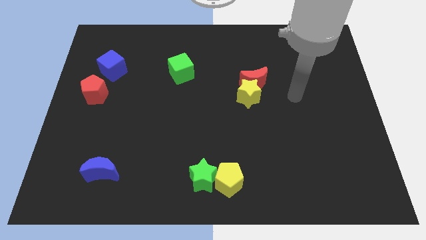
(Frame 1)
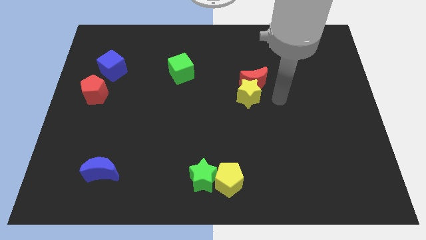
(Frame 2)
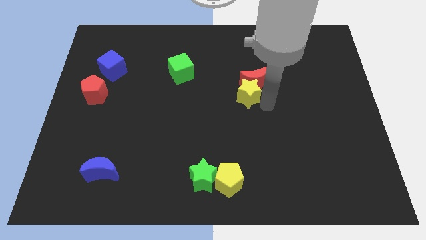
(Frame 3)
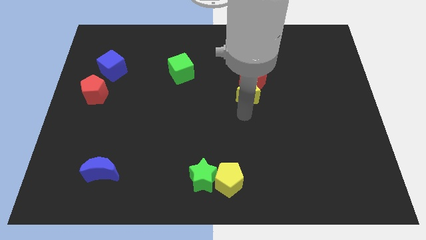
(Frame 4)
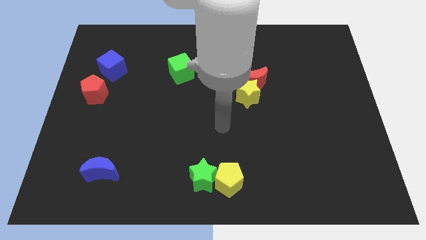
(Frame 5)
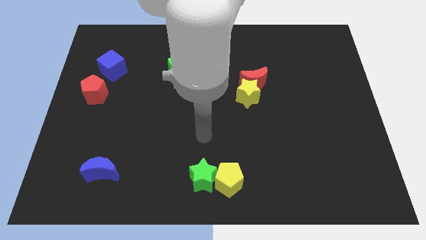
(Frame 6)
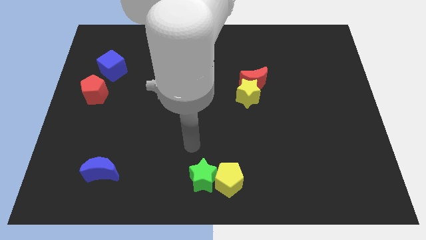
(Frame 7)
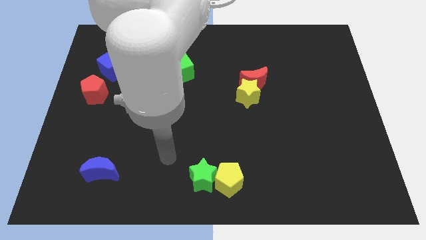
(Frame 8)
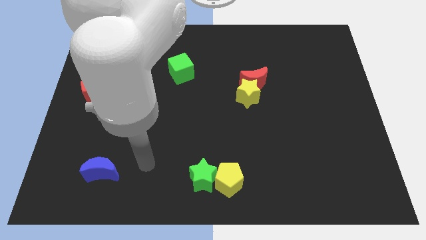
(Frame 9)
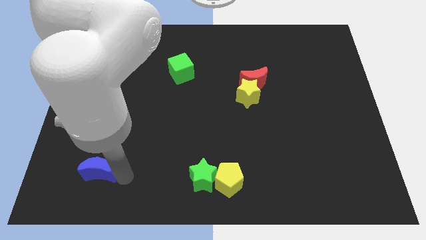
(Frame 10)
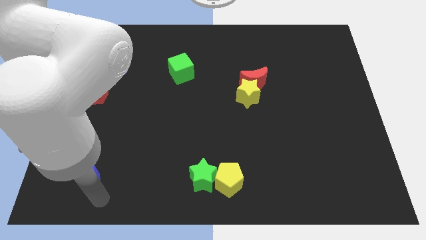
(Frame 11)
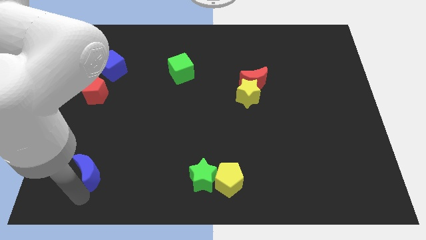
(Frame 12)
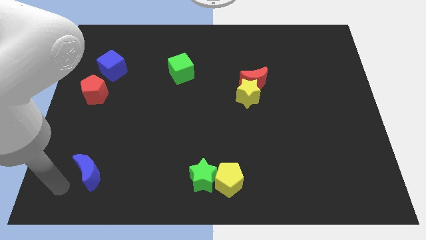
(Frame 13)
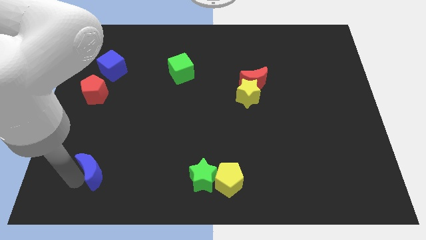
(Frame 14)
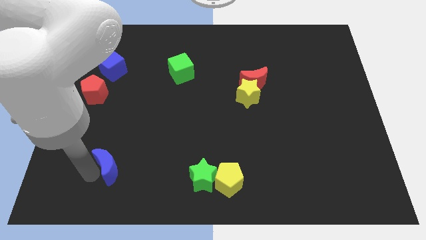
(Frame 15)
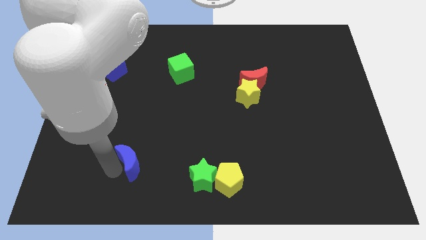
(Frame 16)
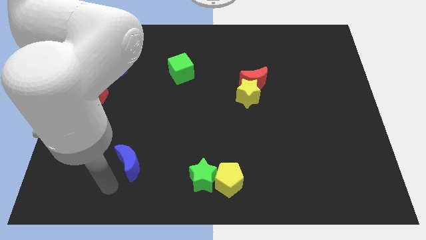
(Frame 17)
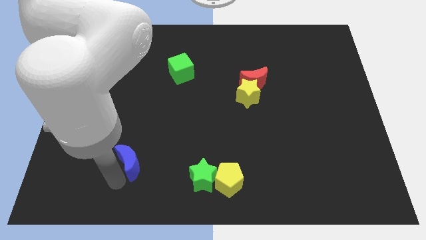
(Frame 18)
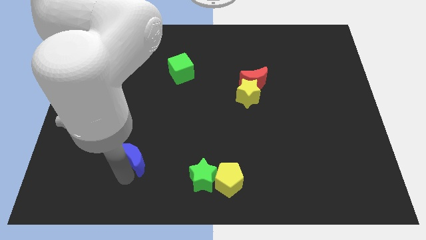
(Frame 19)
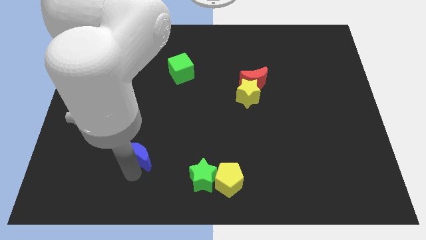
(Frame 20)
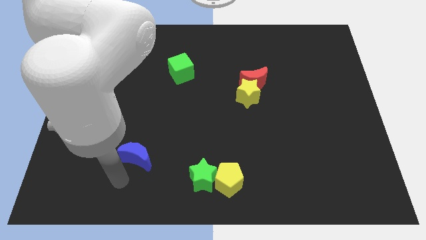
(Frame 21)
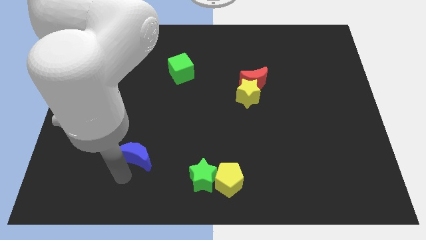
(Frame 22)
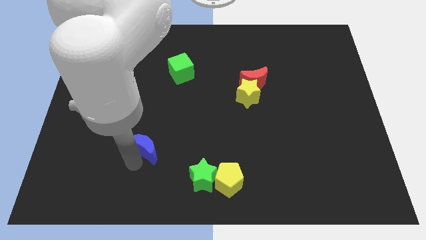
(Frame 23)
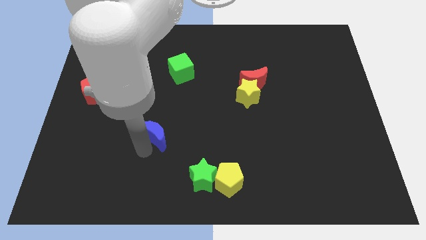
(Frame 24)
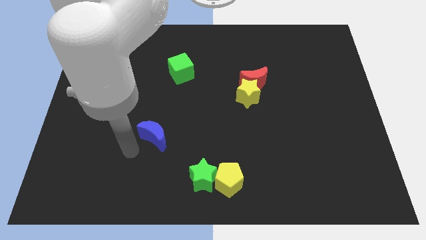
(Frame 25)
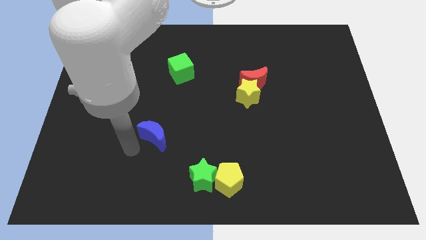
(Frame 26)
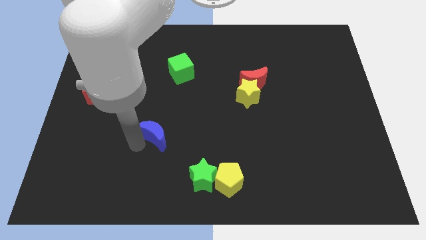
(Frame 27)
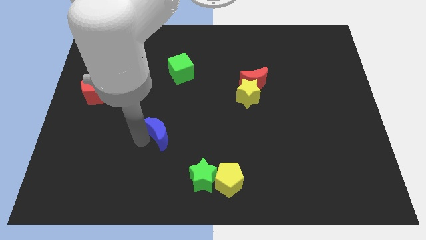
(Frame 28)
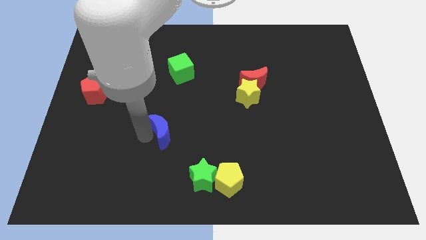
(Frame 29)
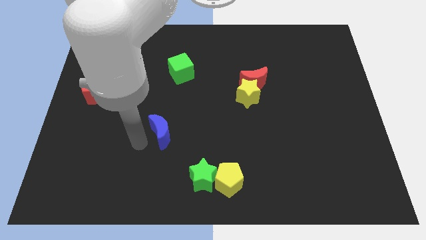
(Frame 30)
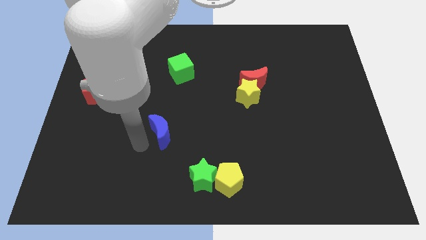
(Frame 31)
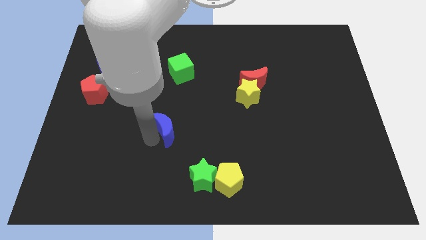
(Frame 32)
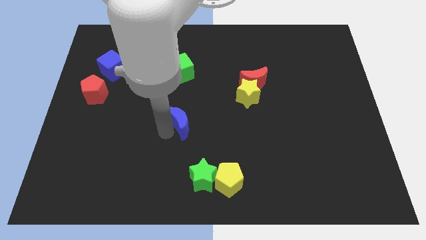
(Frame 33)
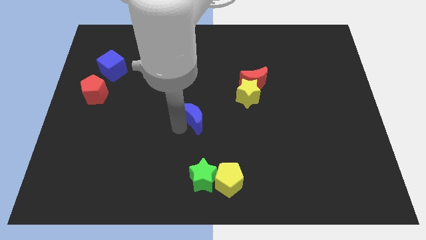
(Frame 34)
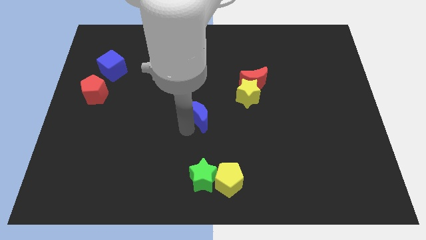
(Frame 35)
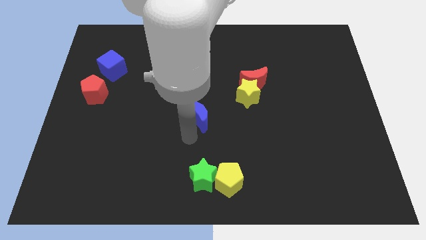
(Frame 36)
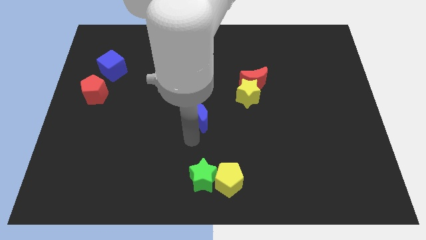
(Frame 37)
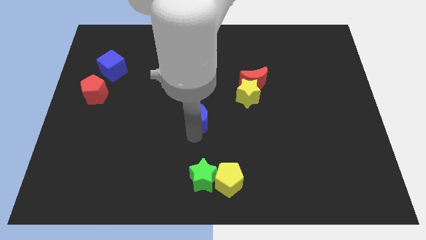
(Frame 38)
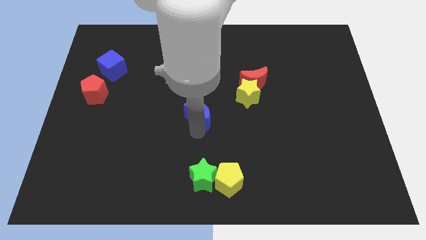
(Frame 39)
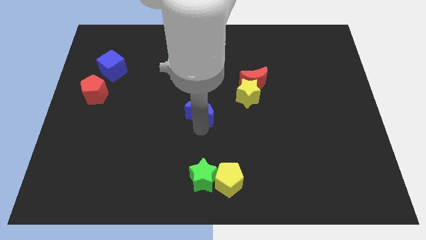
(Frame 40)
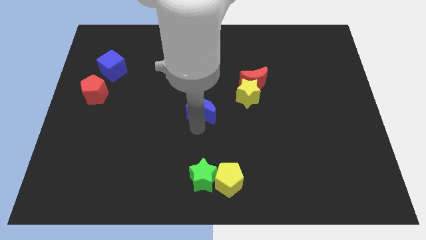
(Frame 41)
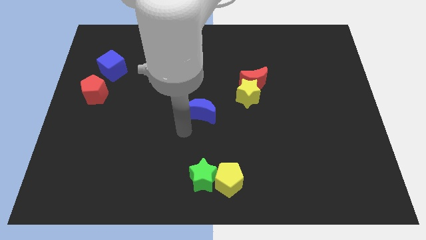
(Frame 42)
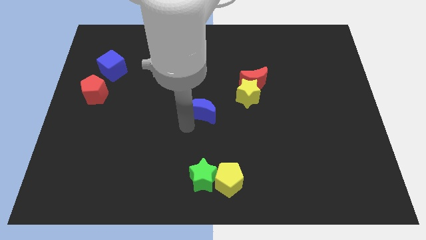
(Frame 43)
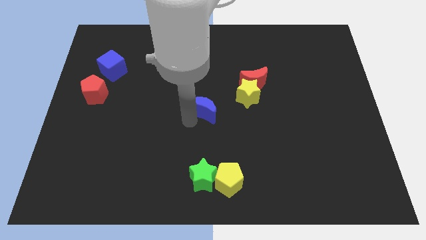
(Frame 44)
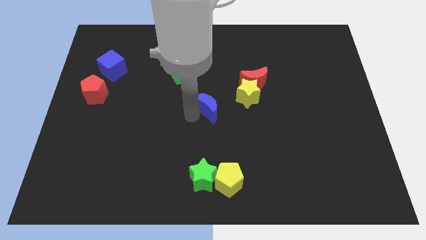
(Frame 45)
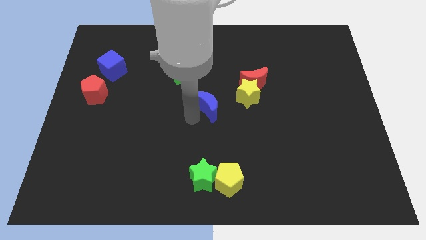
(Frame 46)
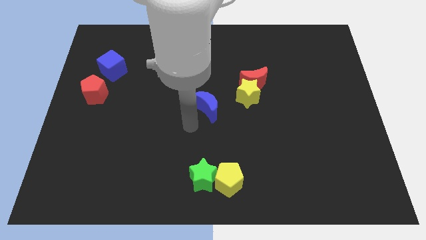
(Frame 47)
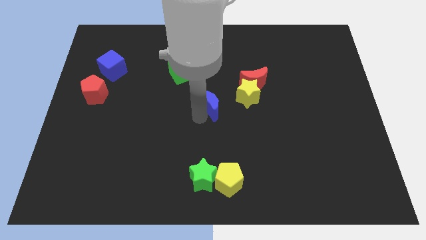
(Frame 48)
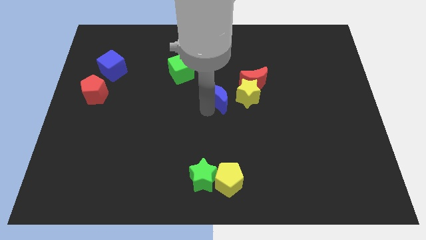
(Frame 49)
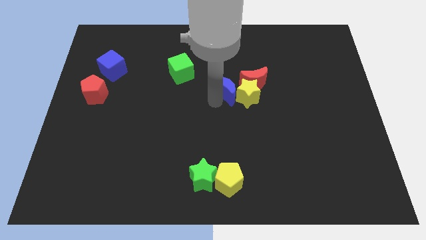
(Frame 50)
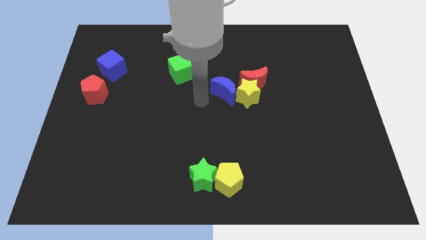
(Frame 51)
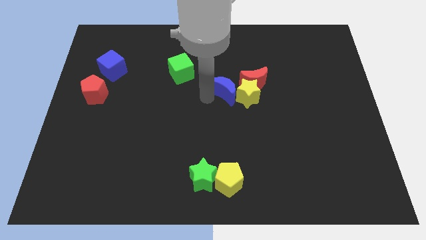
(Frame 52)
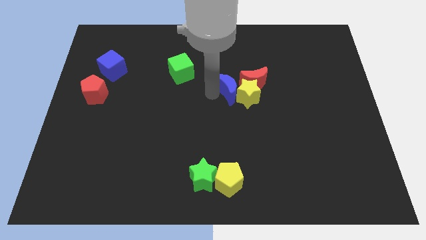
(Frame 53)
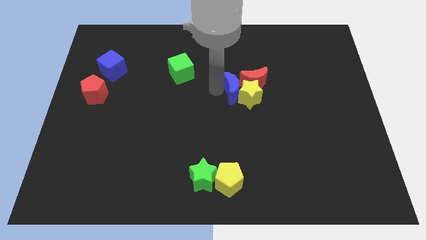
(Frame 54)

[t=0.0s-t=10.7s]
slide the blue moon next to the red moon

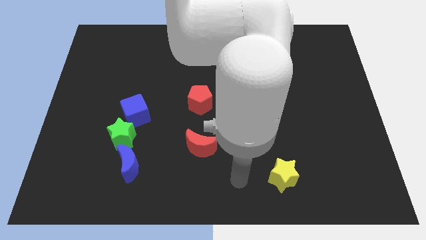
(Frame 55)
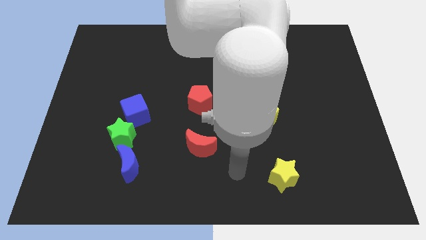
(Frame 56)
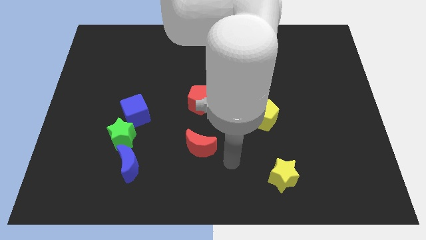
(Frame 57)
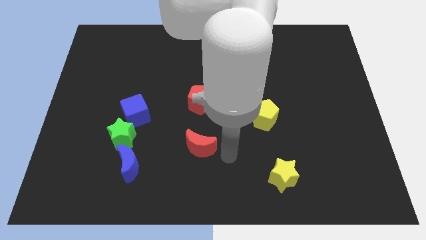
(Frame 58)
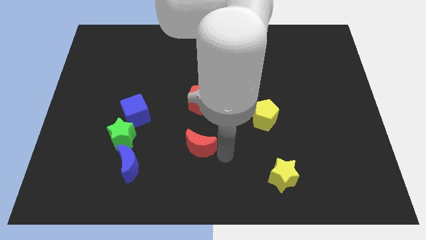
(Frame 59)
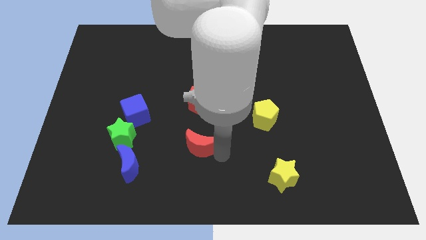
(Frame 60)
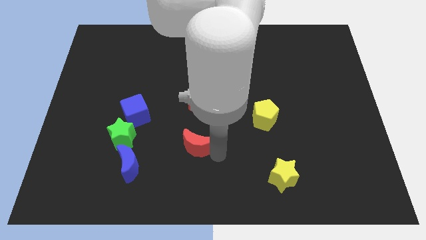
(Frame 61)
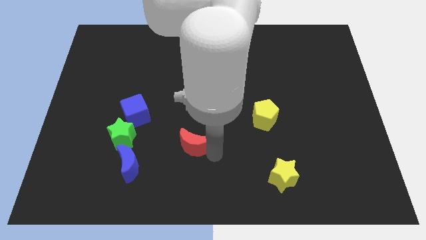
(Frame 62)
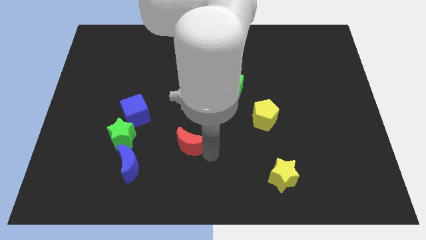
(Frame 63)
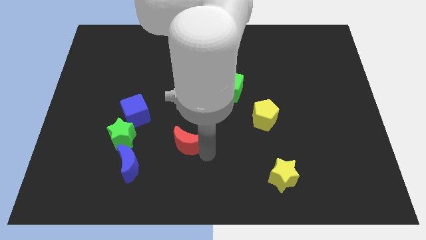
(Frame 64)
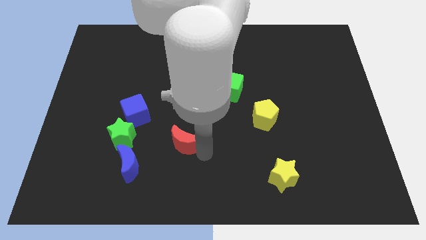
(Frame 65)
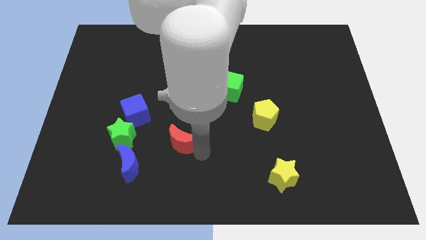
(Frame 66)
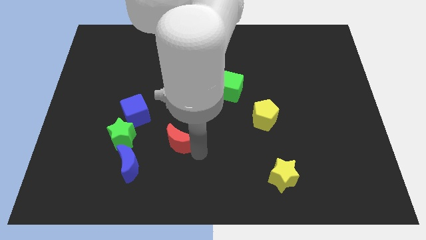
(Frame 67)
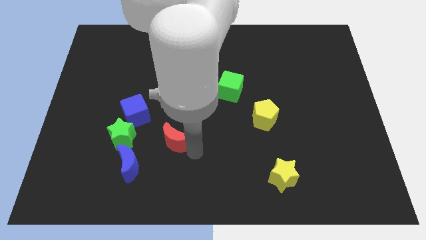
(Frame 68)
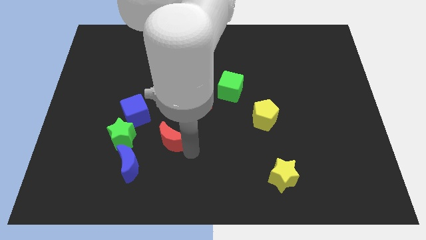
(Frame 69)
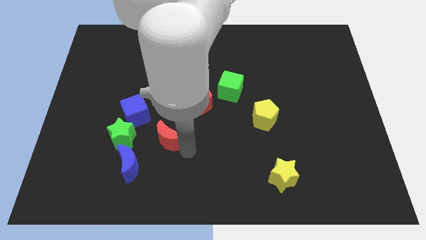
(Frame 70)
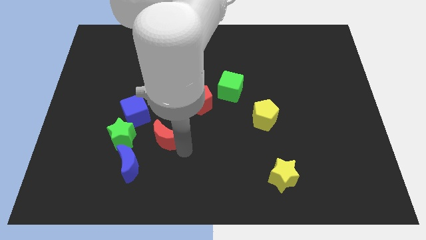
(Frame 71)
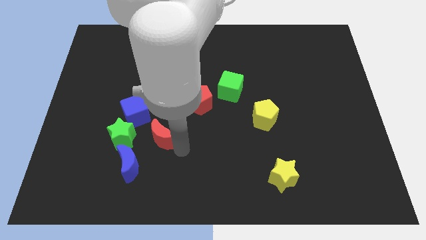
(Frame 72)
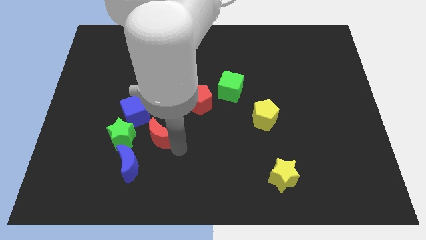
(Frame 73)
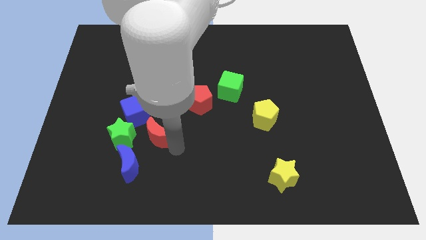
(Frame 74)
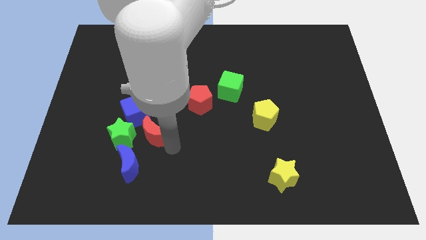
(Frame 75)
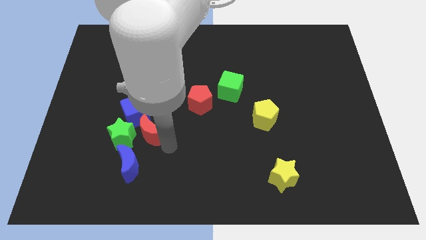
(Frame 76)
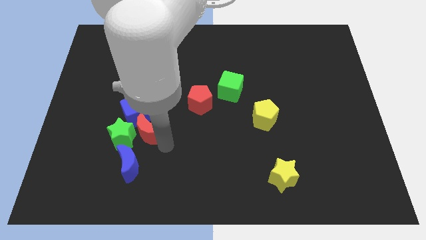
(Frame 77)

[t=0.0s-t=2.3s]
slide the red moon towards the green star
